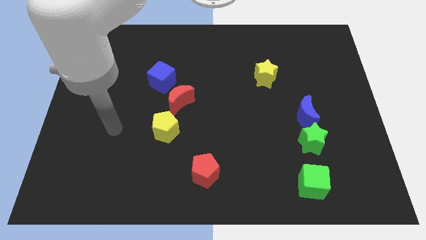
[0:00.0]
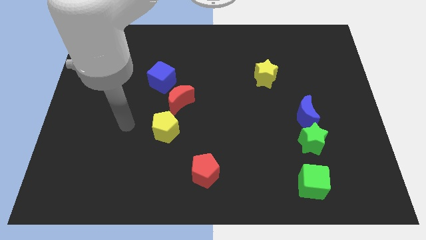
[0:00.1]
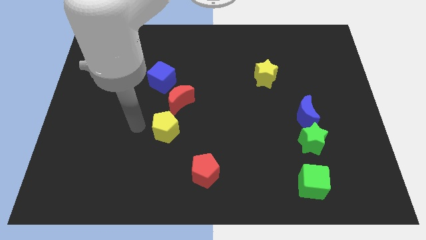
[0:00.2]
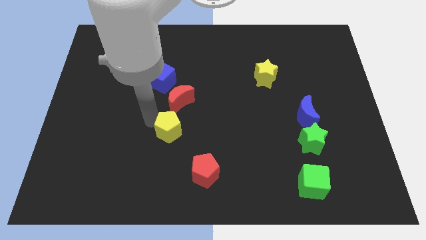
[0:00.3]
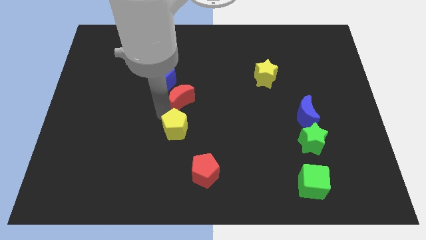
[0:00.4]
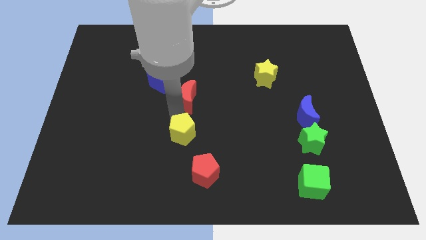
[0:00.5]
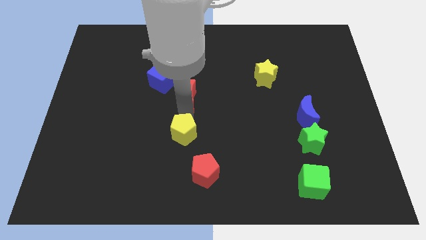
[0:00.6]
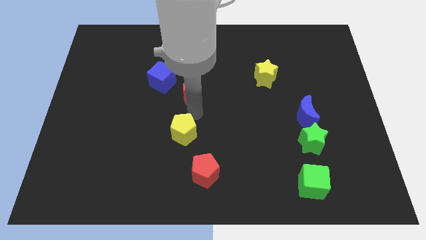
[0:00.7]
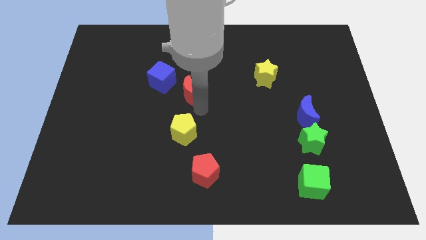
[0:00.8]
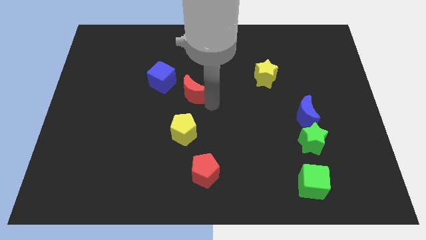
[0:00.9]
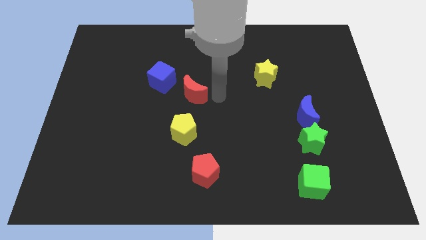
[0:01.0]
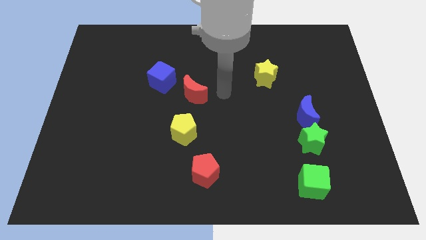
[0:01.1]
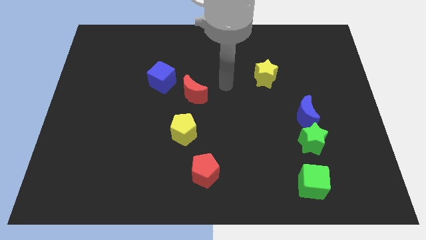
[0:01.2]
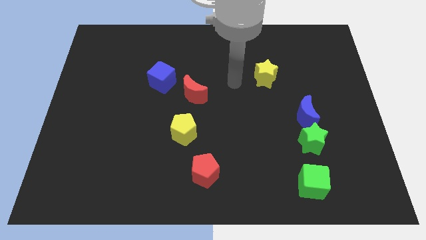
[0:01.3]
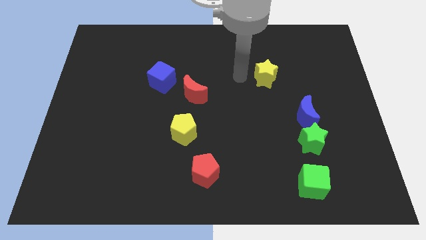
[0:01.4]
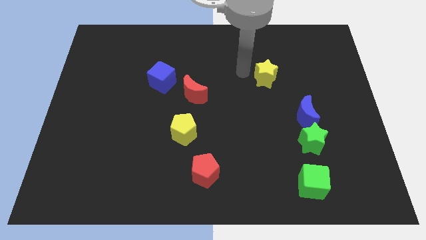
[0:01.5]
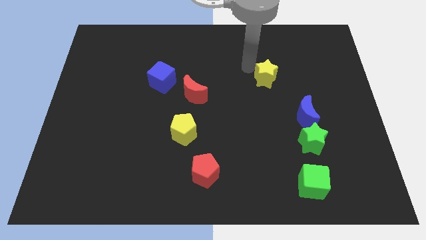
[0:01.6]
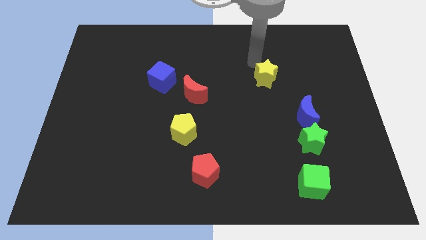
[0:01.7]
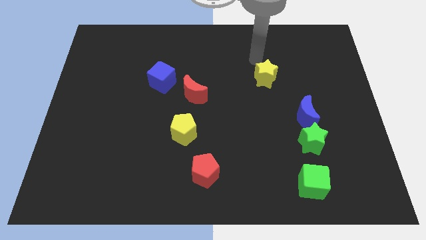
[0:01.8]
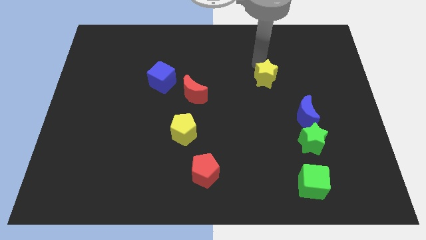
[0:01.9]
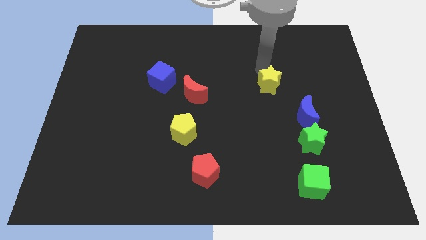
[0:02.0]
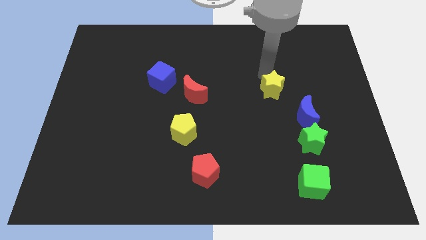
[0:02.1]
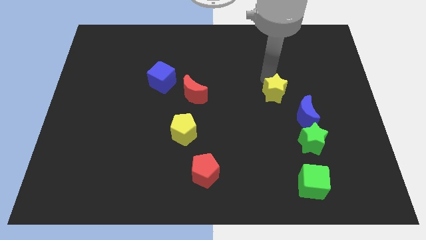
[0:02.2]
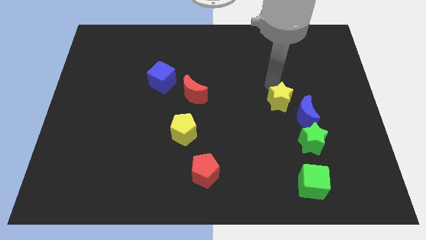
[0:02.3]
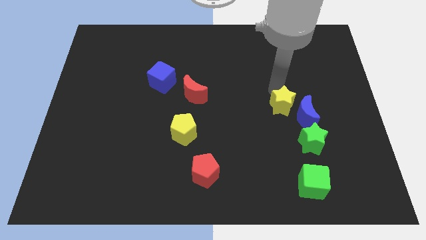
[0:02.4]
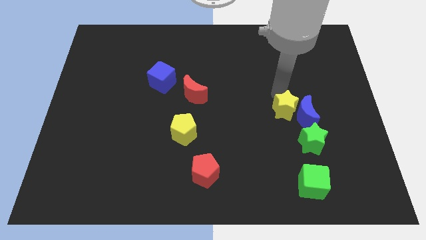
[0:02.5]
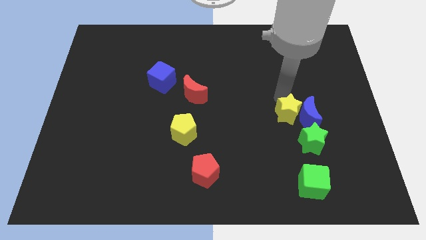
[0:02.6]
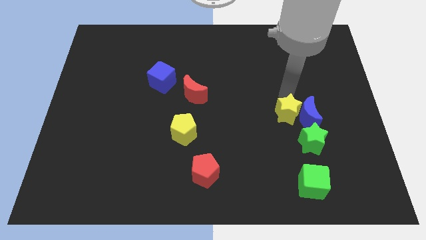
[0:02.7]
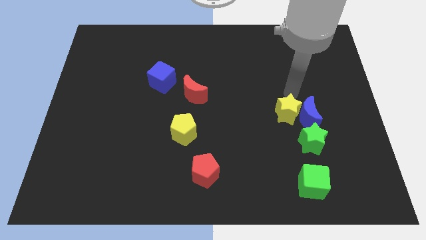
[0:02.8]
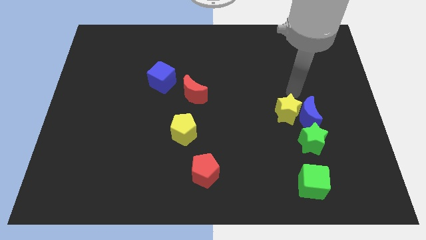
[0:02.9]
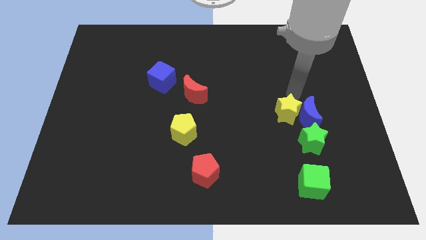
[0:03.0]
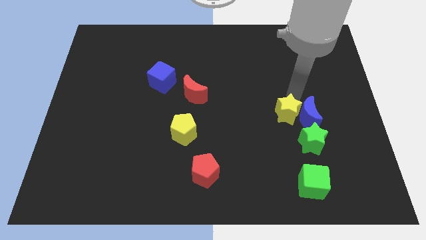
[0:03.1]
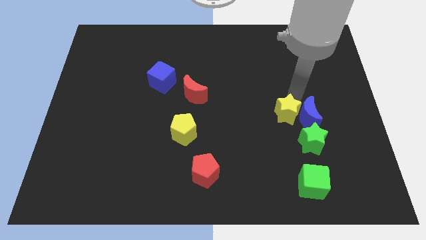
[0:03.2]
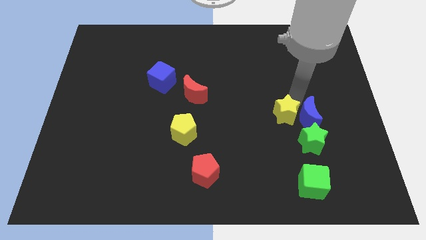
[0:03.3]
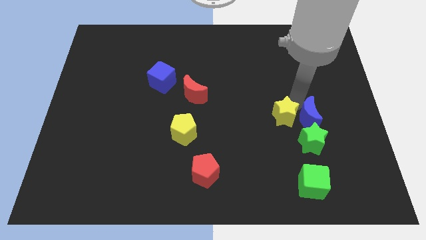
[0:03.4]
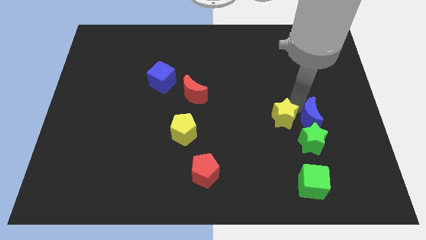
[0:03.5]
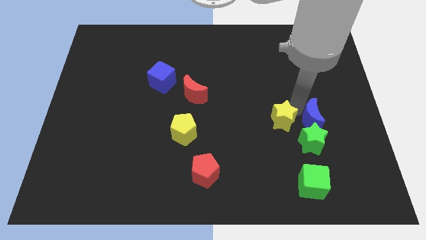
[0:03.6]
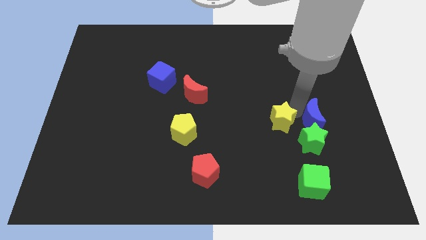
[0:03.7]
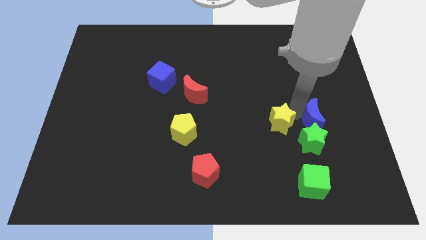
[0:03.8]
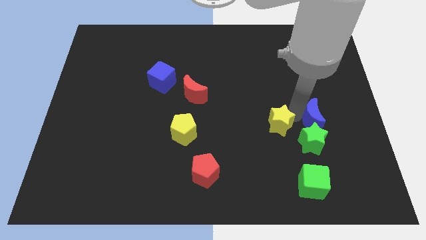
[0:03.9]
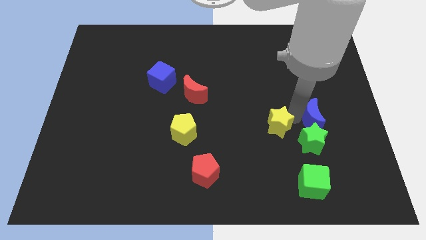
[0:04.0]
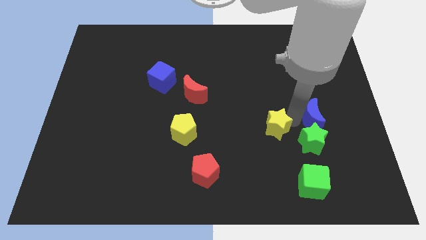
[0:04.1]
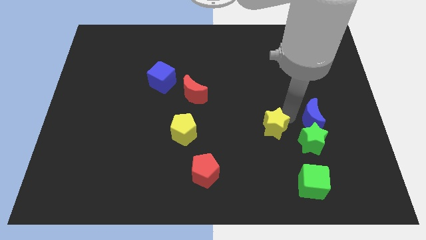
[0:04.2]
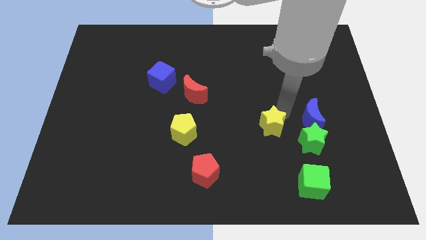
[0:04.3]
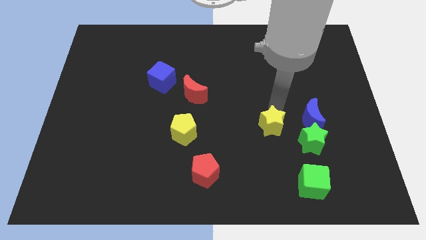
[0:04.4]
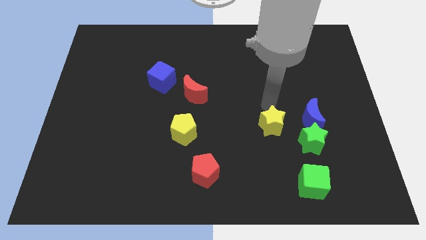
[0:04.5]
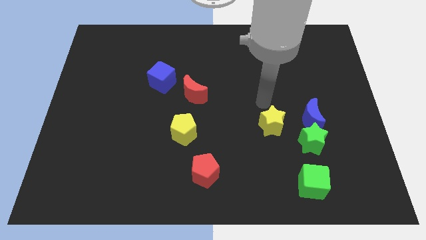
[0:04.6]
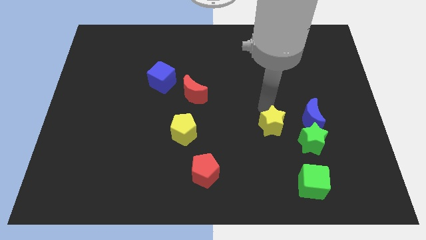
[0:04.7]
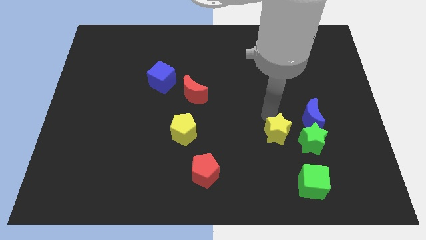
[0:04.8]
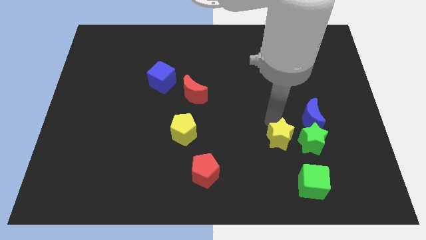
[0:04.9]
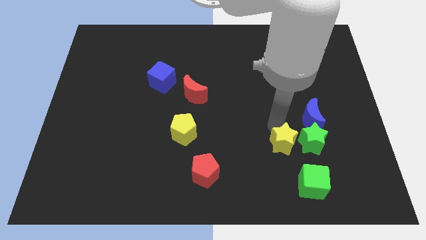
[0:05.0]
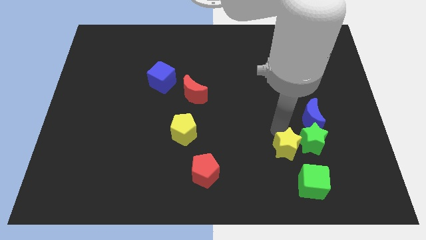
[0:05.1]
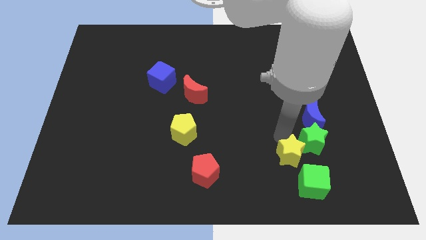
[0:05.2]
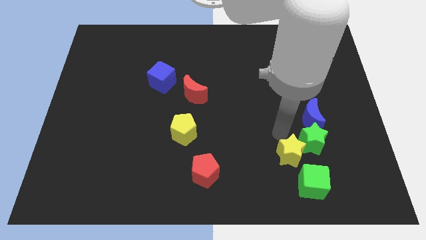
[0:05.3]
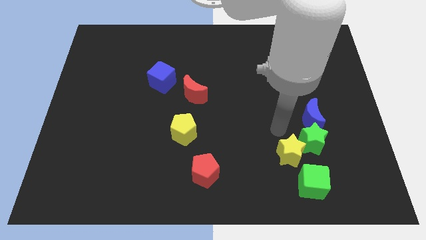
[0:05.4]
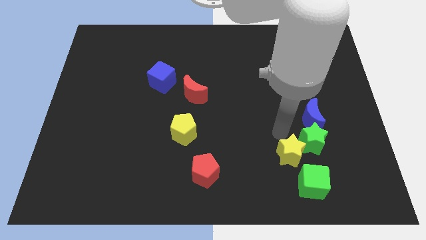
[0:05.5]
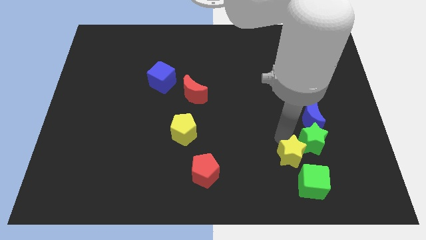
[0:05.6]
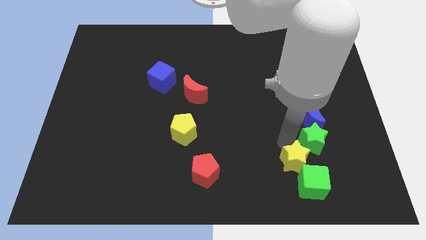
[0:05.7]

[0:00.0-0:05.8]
move the yellow star close to the green cube

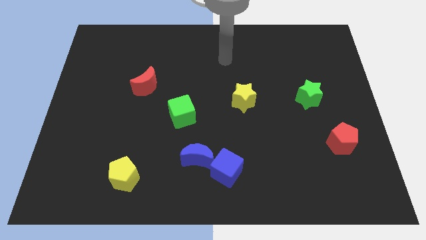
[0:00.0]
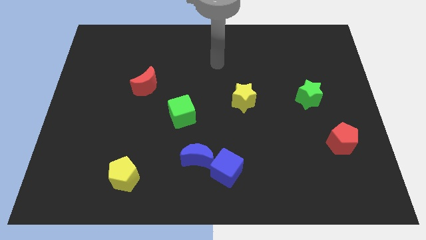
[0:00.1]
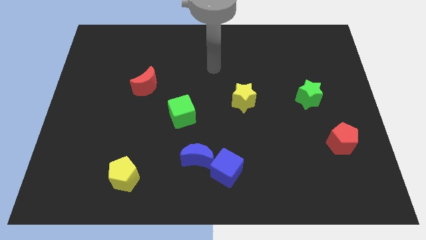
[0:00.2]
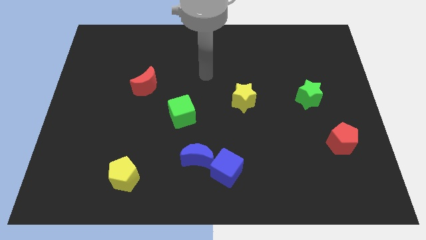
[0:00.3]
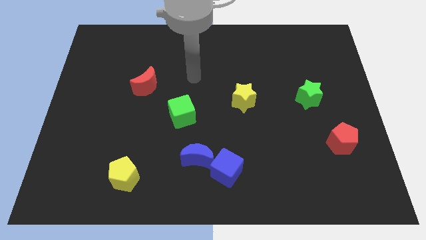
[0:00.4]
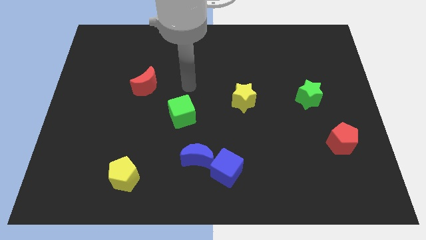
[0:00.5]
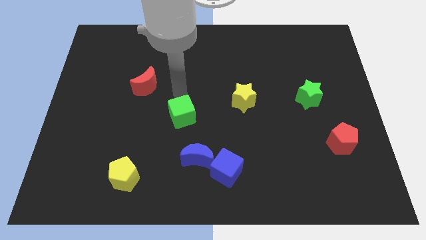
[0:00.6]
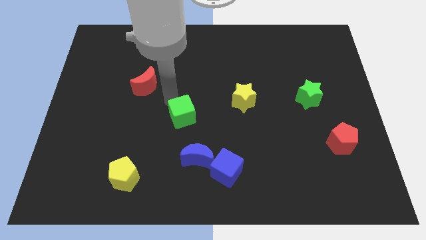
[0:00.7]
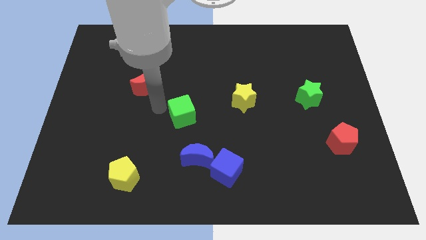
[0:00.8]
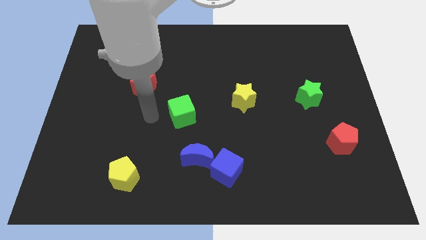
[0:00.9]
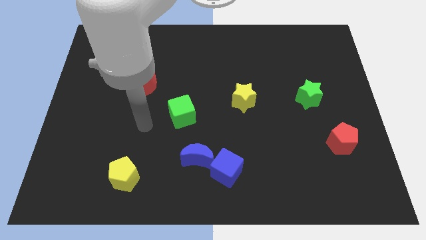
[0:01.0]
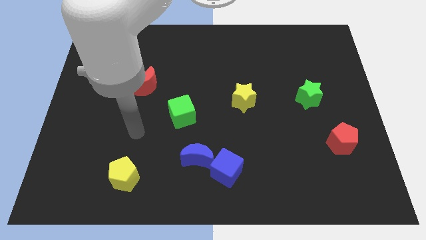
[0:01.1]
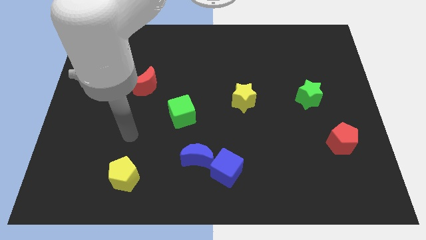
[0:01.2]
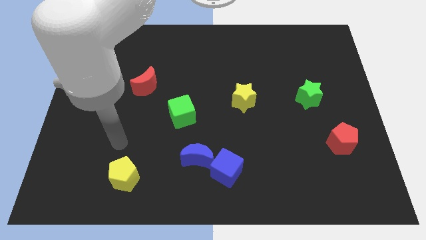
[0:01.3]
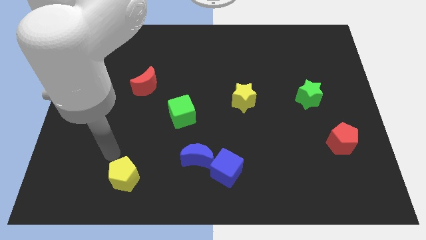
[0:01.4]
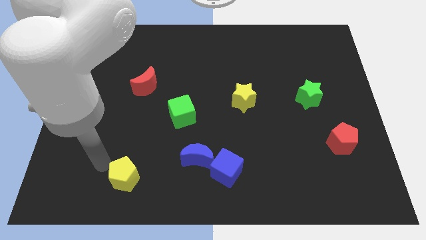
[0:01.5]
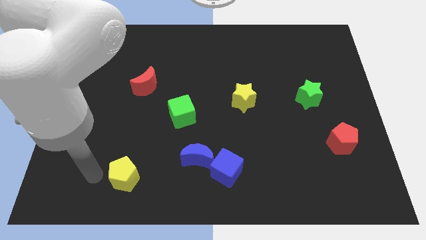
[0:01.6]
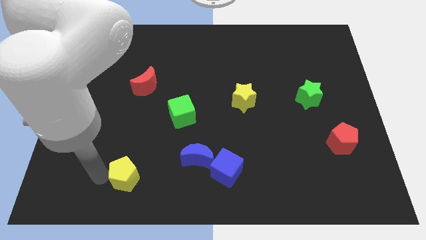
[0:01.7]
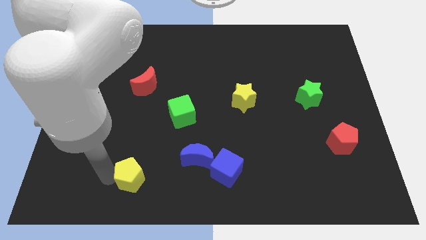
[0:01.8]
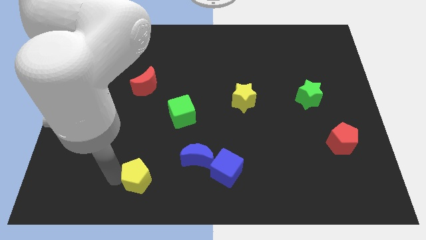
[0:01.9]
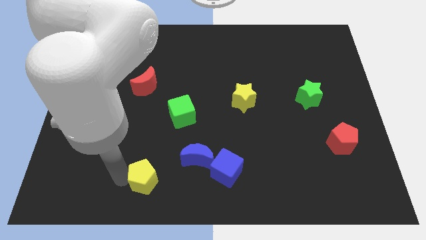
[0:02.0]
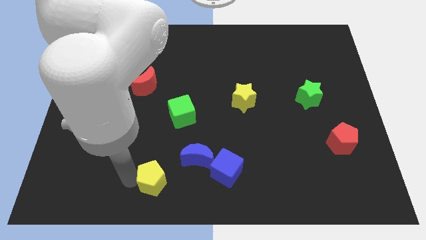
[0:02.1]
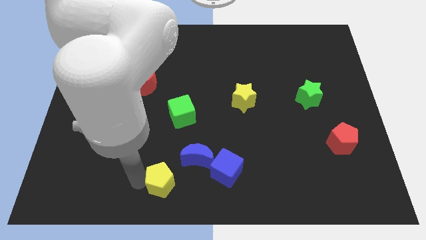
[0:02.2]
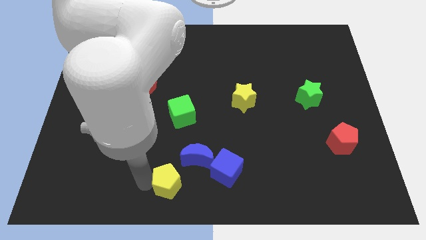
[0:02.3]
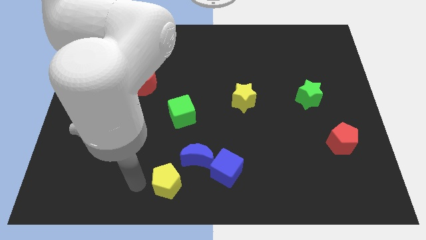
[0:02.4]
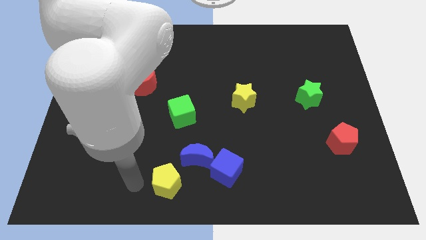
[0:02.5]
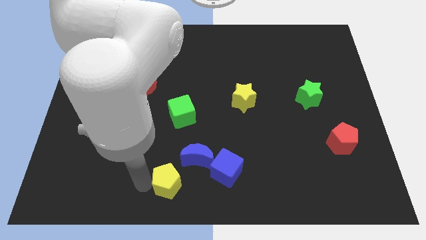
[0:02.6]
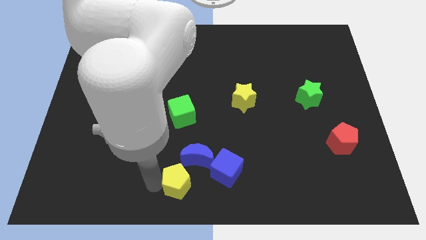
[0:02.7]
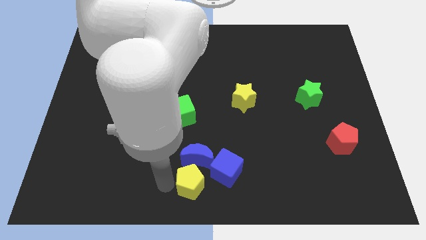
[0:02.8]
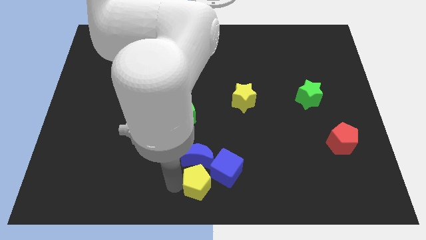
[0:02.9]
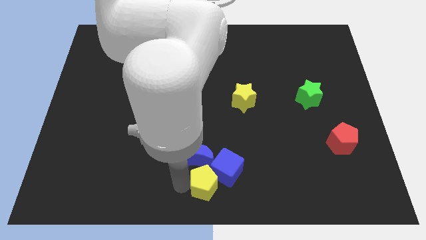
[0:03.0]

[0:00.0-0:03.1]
slide the yellow pentagon towards the blue cube
